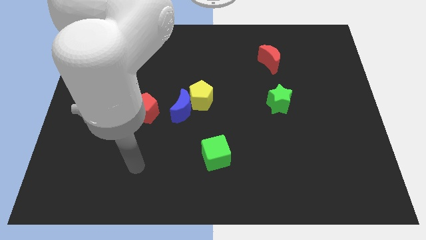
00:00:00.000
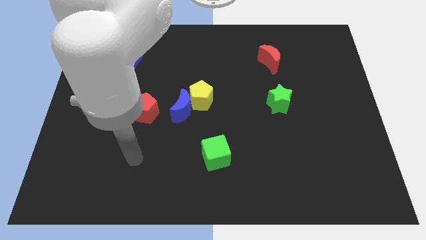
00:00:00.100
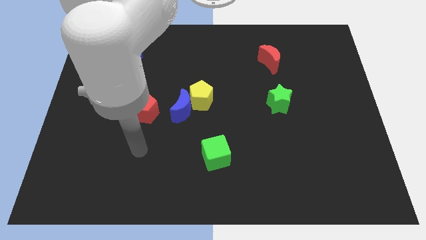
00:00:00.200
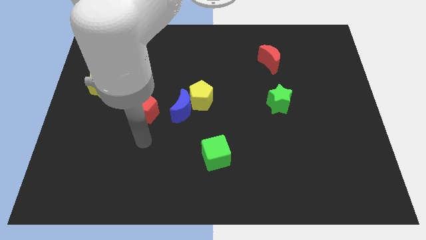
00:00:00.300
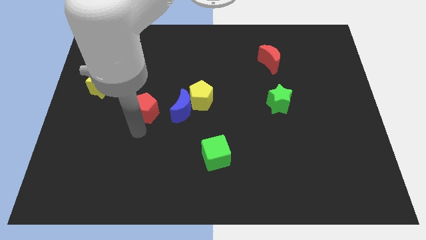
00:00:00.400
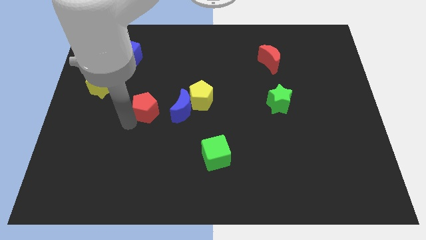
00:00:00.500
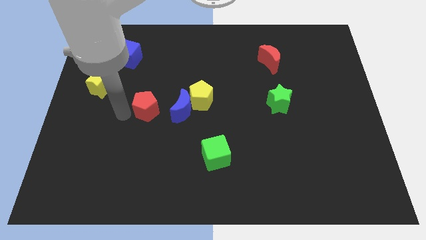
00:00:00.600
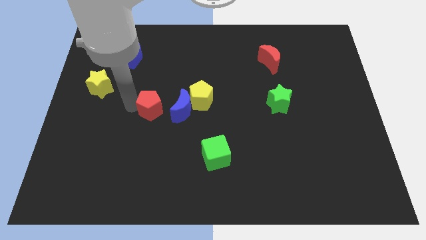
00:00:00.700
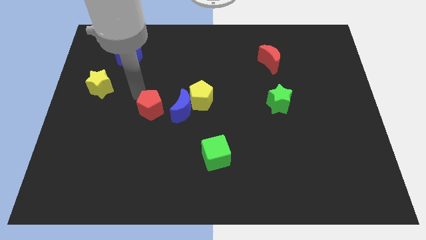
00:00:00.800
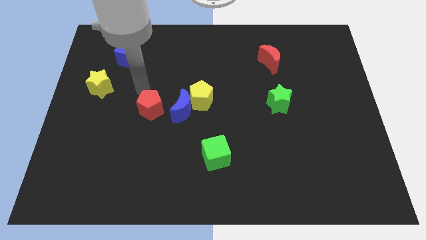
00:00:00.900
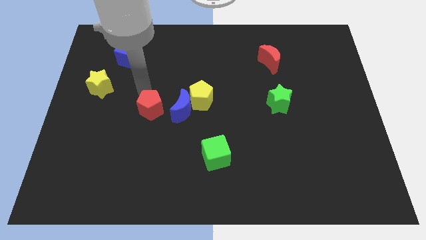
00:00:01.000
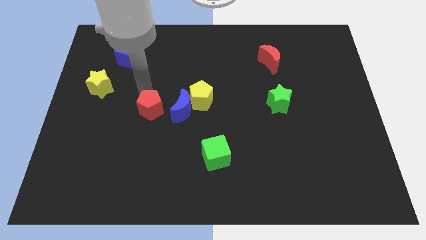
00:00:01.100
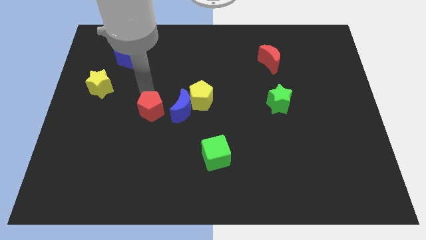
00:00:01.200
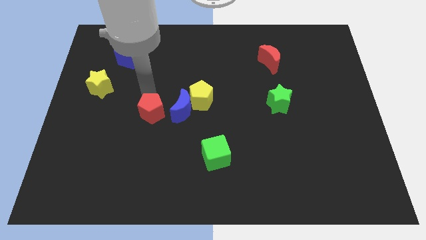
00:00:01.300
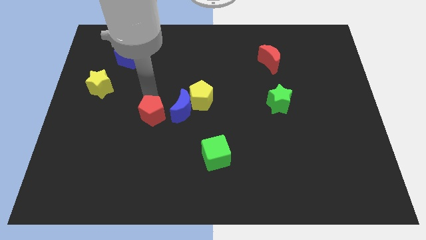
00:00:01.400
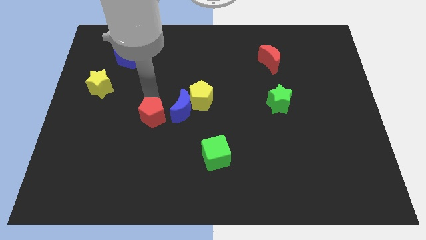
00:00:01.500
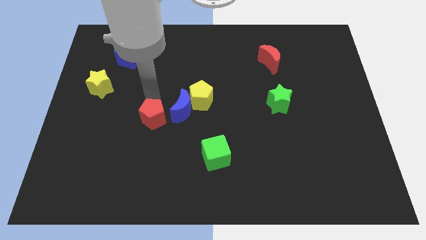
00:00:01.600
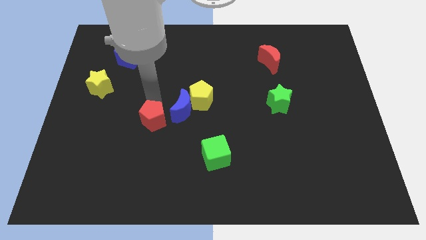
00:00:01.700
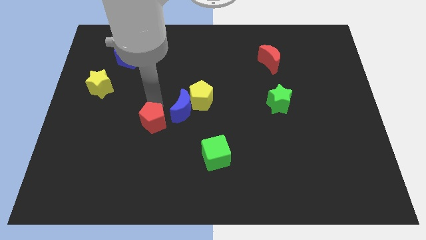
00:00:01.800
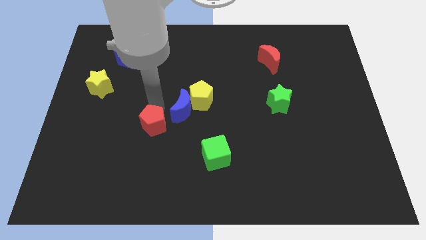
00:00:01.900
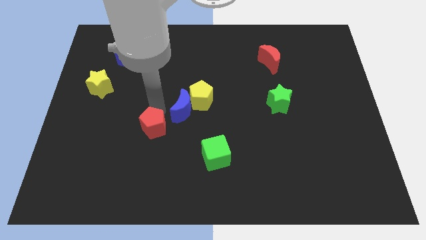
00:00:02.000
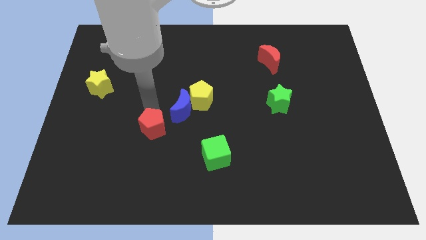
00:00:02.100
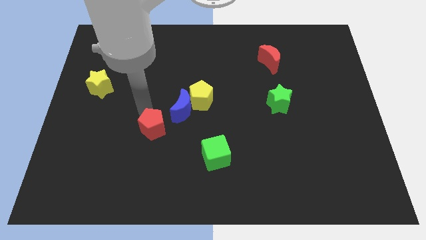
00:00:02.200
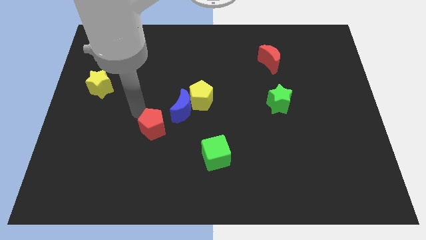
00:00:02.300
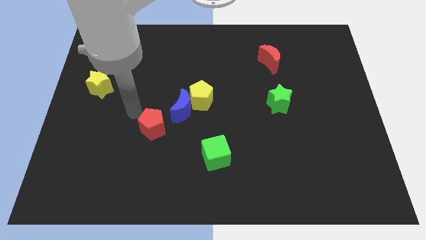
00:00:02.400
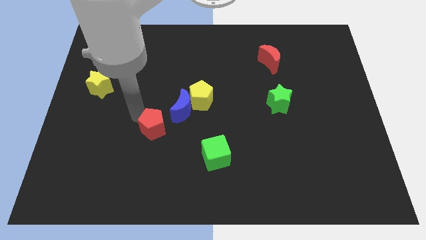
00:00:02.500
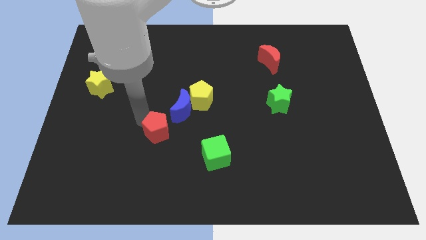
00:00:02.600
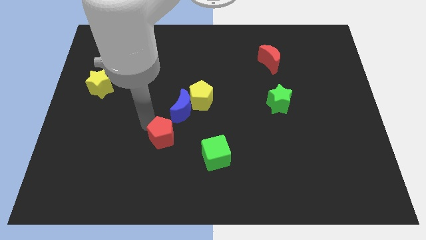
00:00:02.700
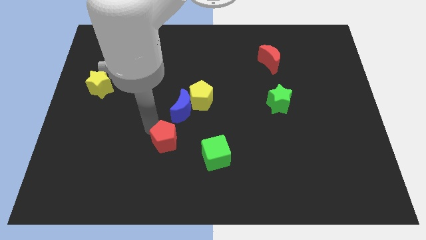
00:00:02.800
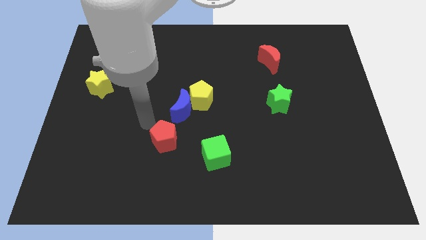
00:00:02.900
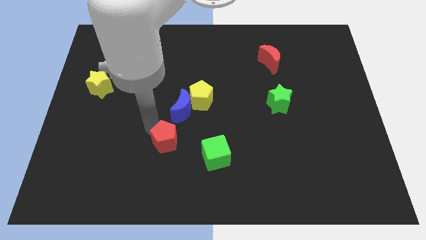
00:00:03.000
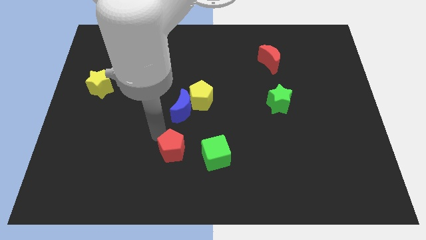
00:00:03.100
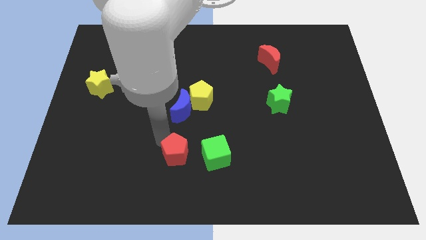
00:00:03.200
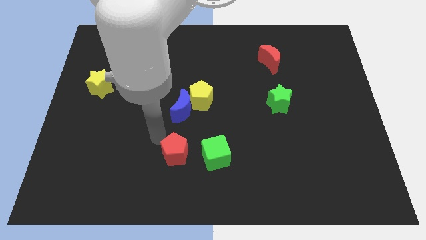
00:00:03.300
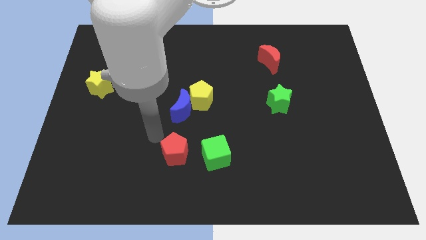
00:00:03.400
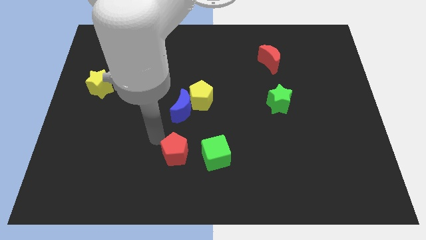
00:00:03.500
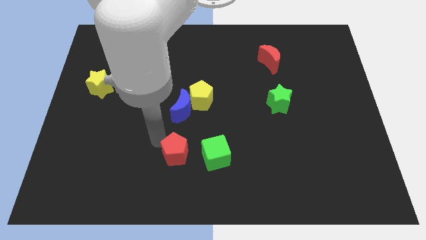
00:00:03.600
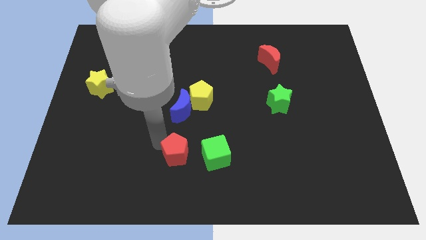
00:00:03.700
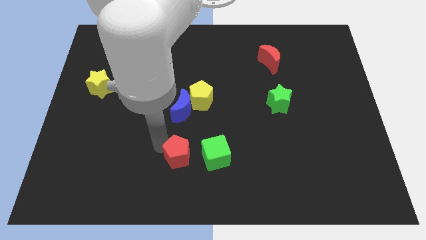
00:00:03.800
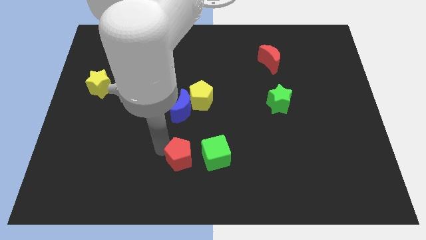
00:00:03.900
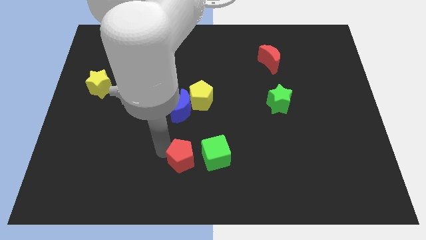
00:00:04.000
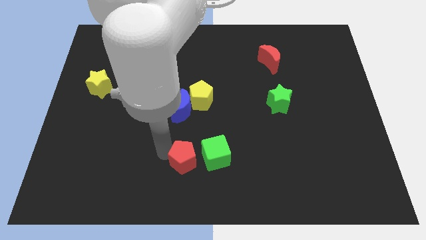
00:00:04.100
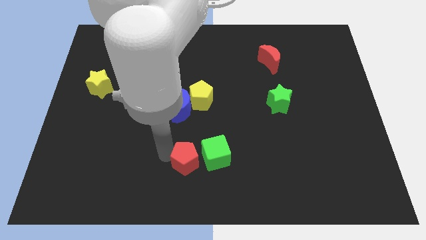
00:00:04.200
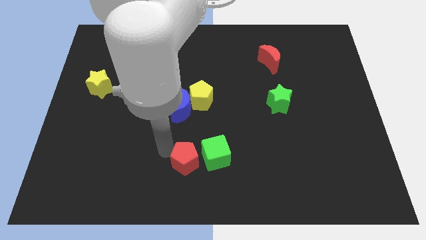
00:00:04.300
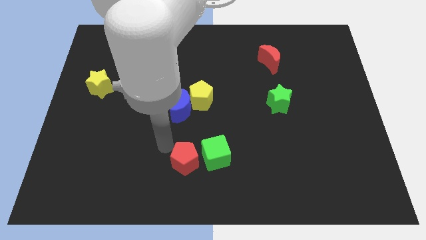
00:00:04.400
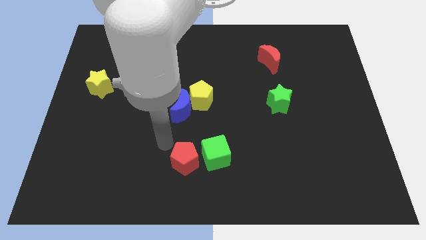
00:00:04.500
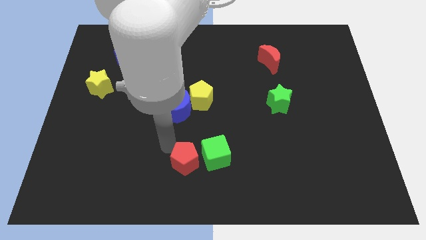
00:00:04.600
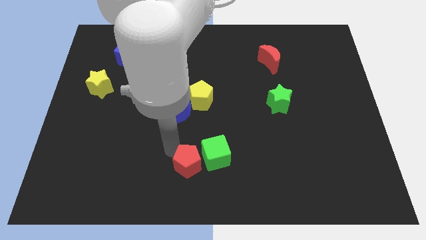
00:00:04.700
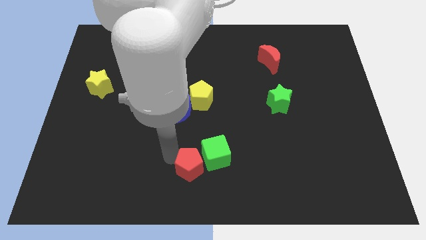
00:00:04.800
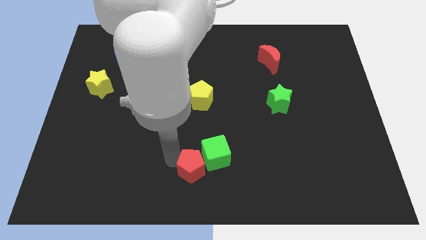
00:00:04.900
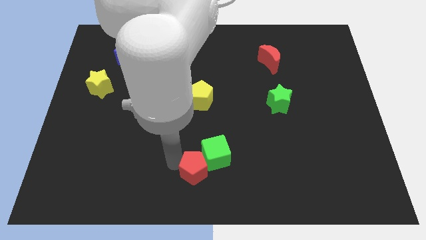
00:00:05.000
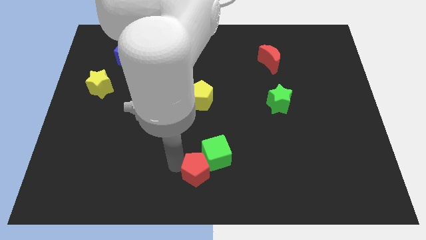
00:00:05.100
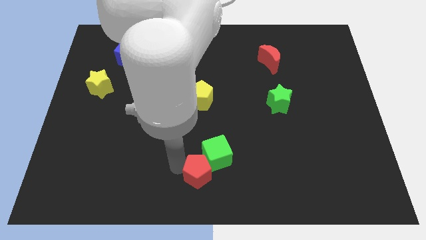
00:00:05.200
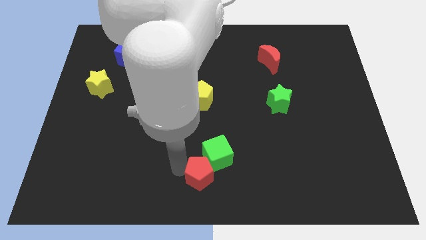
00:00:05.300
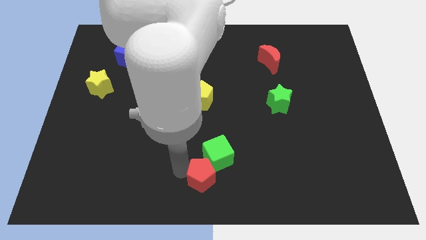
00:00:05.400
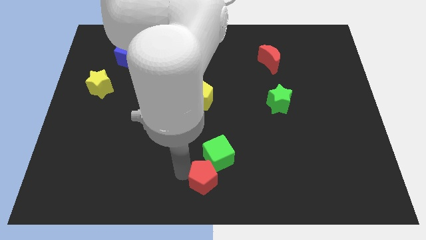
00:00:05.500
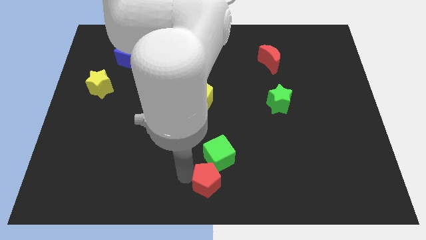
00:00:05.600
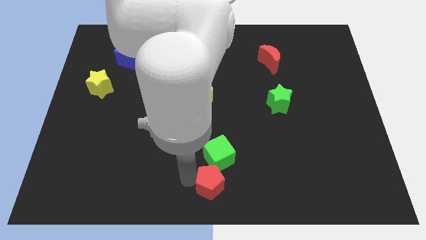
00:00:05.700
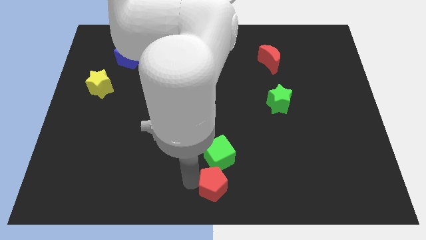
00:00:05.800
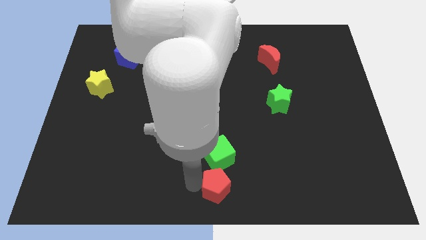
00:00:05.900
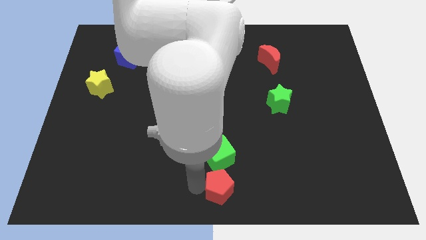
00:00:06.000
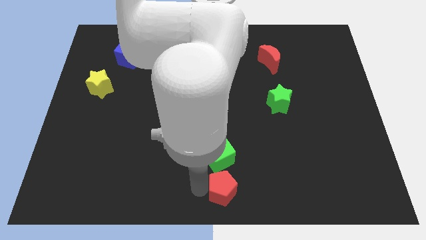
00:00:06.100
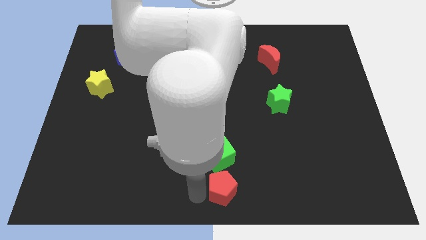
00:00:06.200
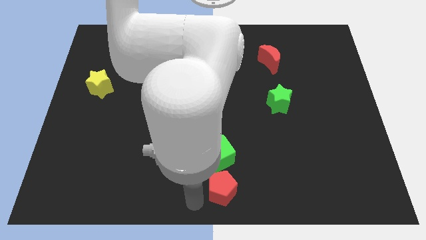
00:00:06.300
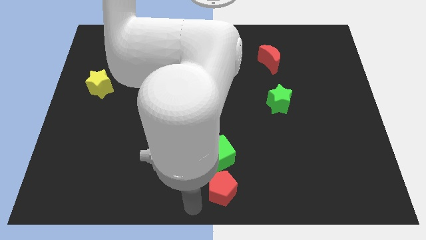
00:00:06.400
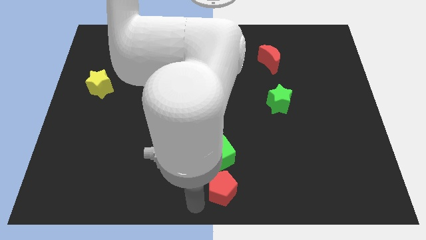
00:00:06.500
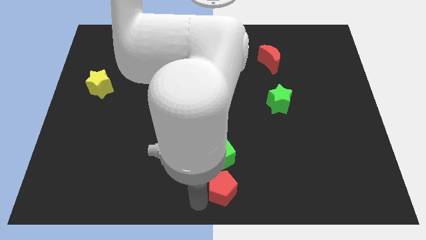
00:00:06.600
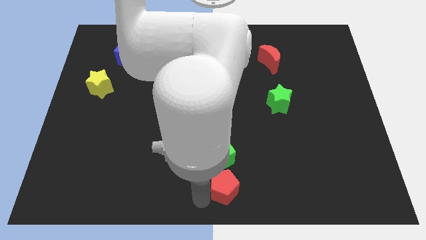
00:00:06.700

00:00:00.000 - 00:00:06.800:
push the red pentagon diagonally down and to the right of the green cube
